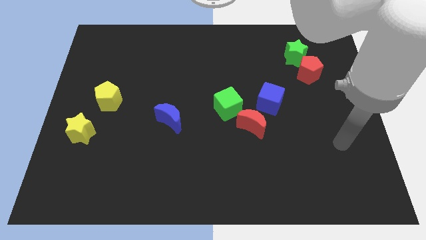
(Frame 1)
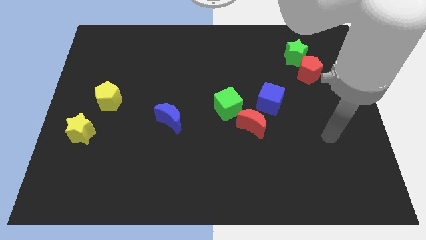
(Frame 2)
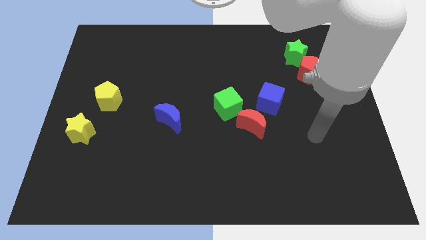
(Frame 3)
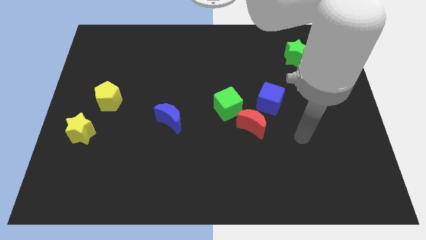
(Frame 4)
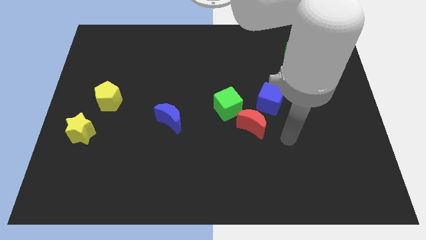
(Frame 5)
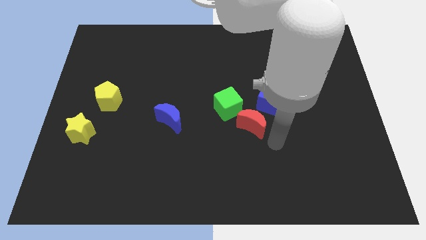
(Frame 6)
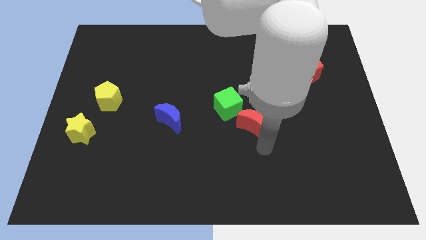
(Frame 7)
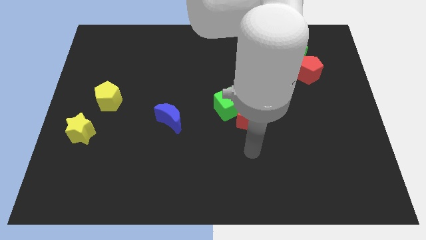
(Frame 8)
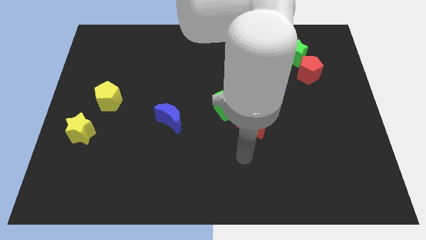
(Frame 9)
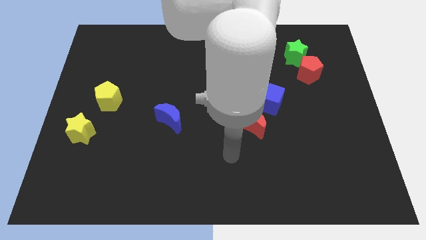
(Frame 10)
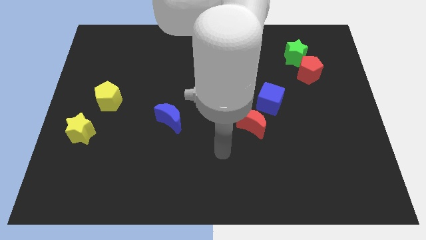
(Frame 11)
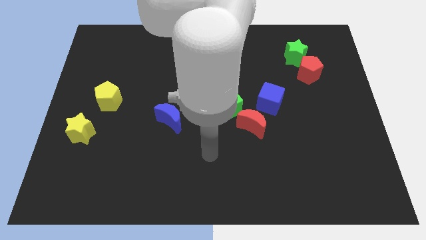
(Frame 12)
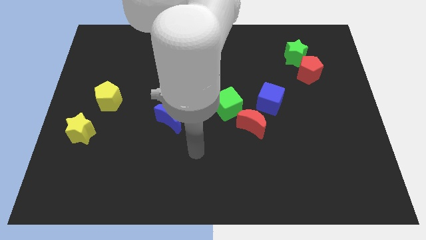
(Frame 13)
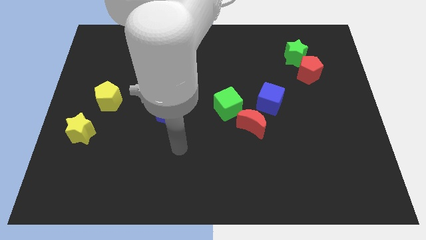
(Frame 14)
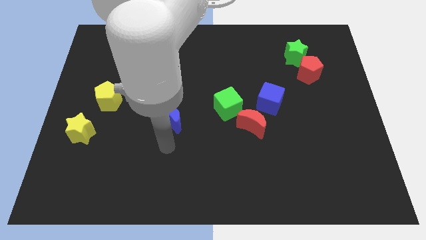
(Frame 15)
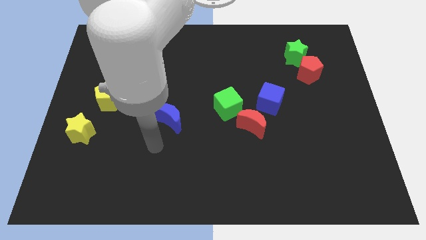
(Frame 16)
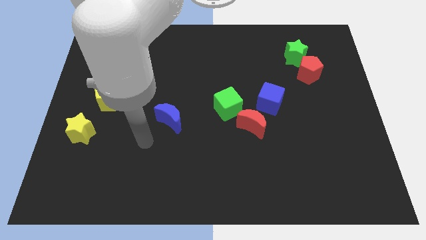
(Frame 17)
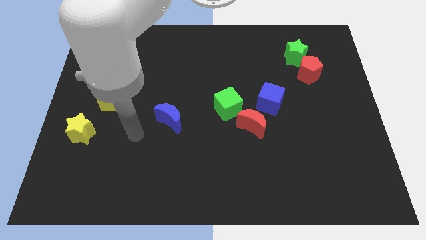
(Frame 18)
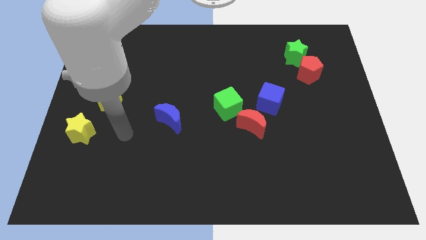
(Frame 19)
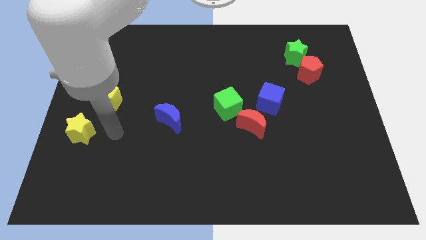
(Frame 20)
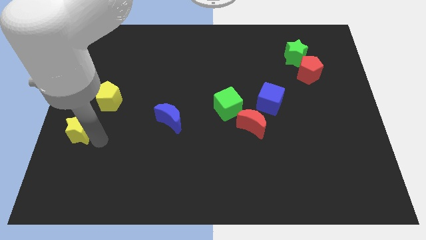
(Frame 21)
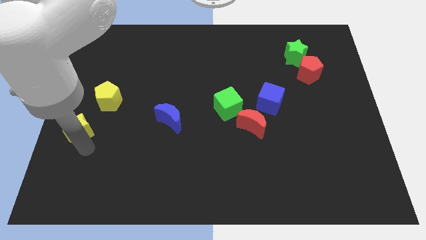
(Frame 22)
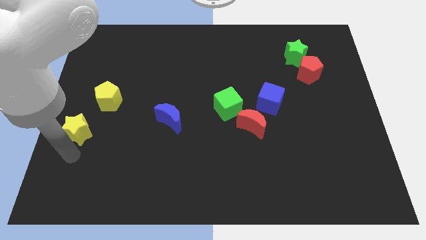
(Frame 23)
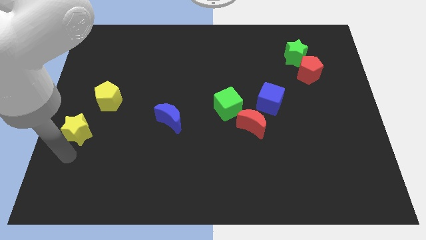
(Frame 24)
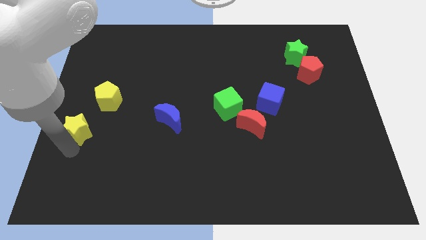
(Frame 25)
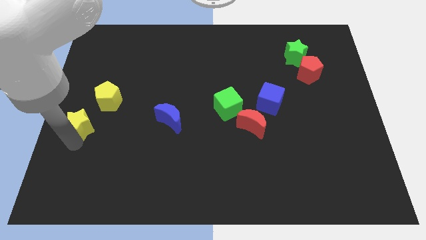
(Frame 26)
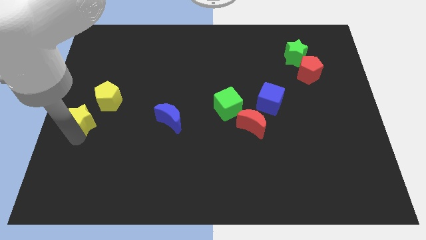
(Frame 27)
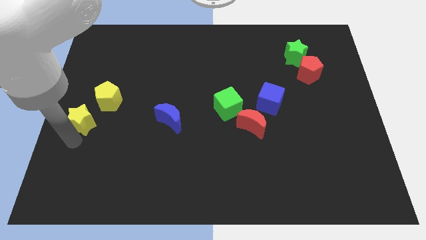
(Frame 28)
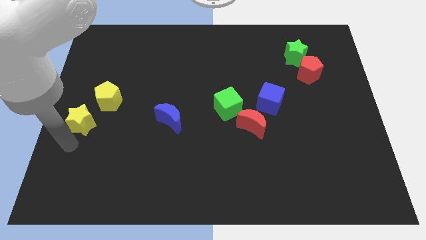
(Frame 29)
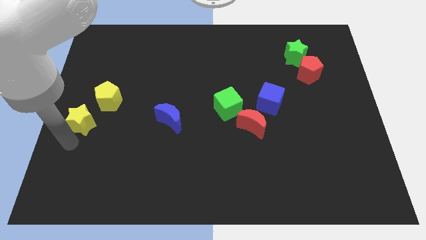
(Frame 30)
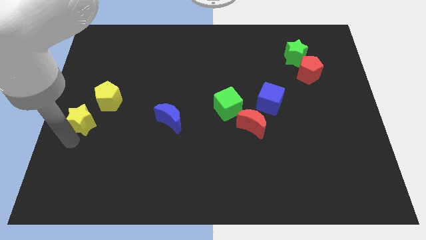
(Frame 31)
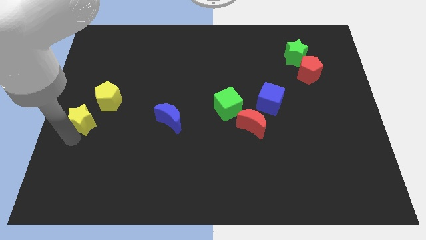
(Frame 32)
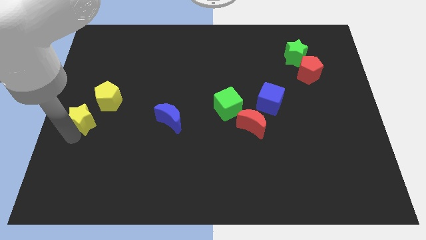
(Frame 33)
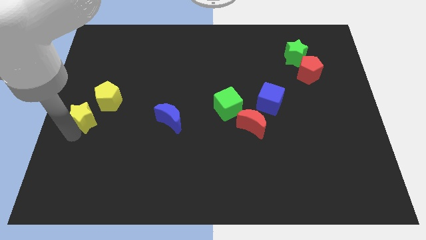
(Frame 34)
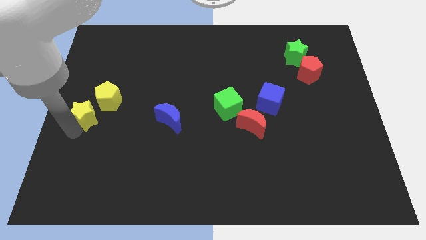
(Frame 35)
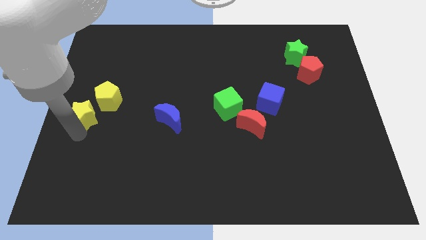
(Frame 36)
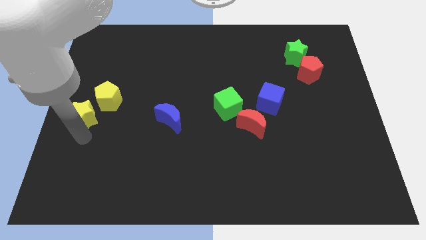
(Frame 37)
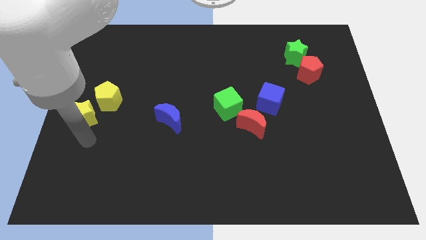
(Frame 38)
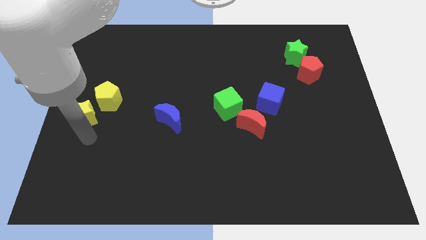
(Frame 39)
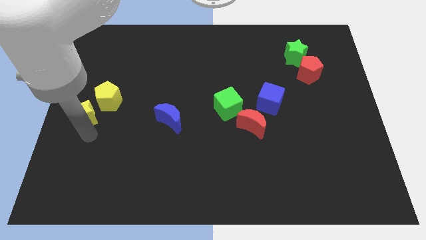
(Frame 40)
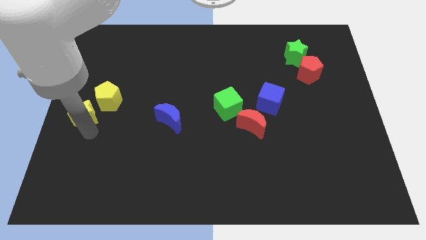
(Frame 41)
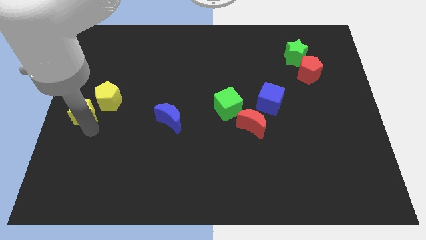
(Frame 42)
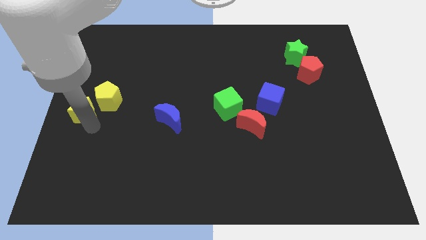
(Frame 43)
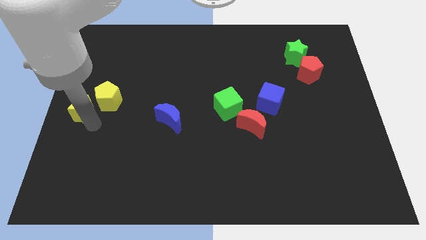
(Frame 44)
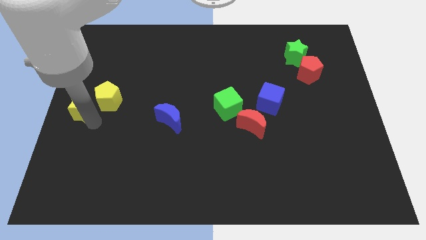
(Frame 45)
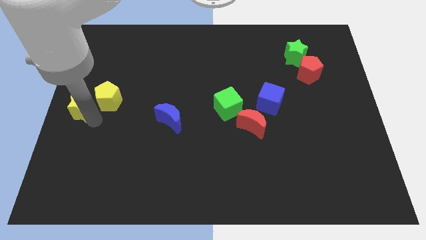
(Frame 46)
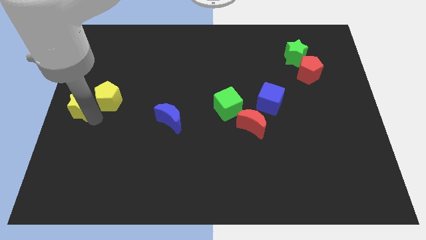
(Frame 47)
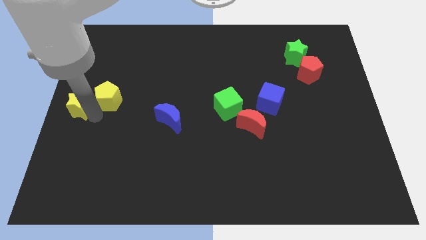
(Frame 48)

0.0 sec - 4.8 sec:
slide the yellow star upwards a little bit

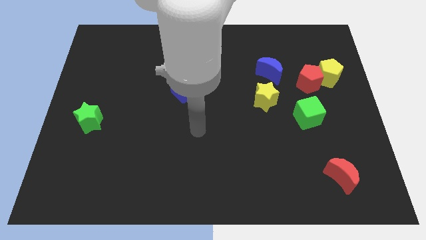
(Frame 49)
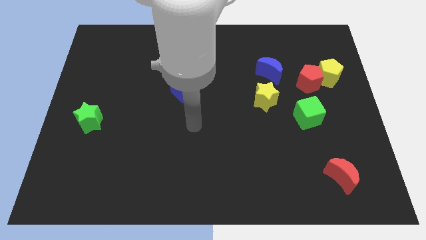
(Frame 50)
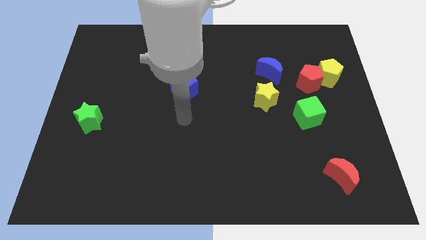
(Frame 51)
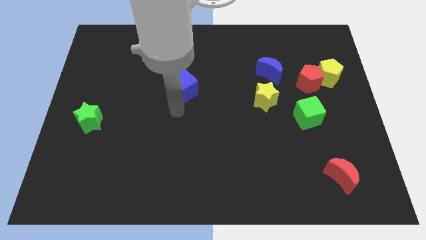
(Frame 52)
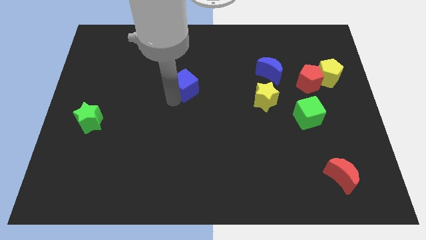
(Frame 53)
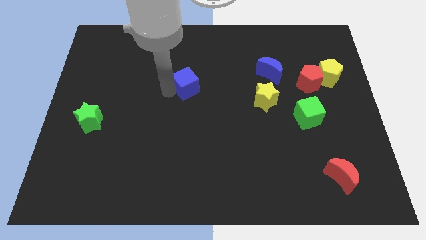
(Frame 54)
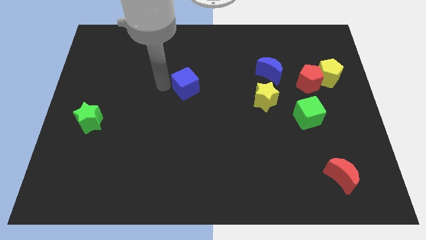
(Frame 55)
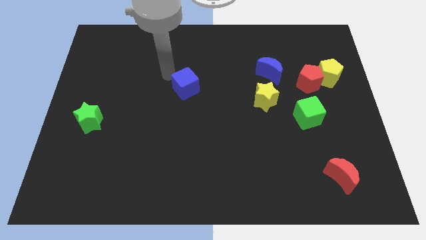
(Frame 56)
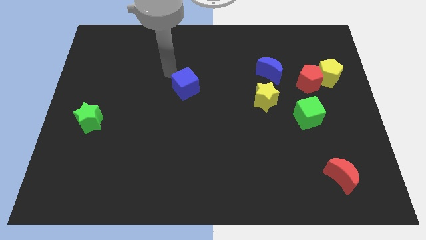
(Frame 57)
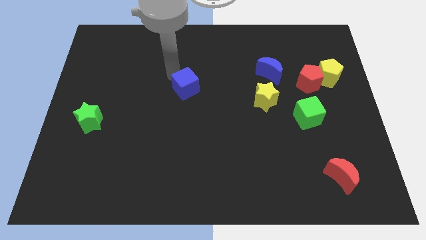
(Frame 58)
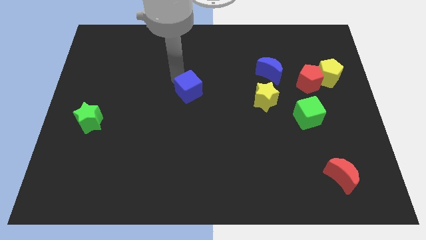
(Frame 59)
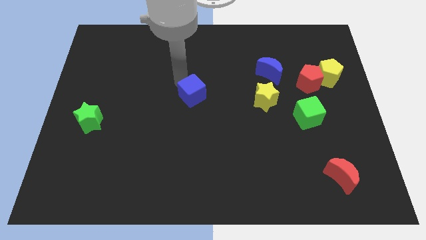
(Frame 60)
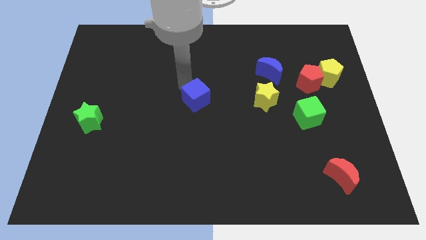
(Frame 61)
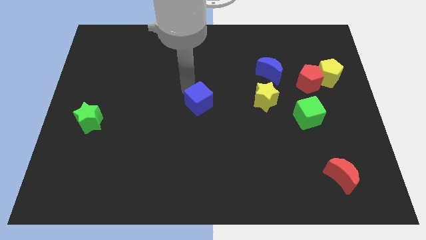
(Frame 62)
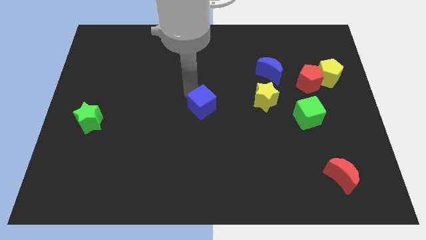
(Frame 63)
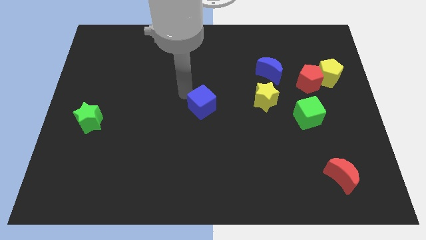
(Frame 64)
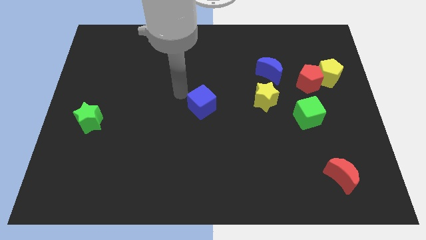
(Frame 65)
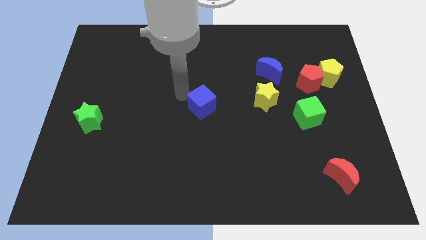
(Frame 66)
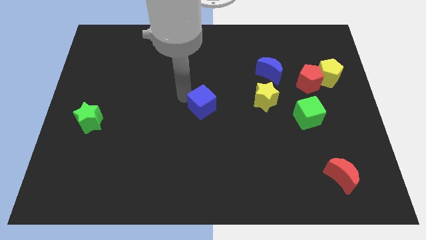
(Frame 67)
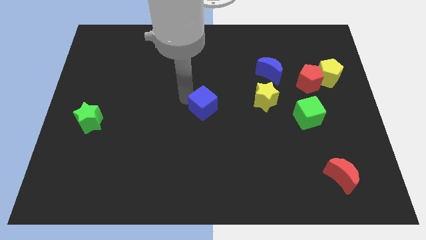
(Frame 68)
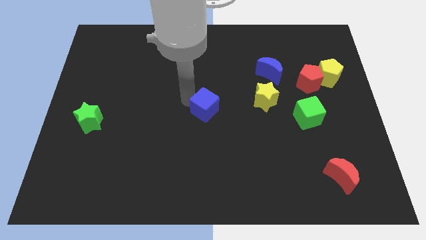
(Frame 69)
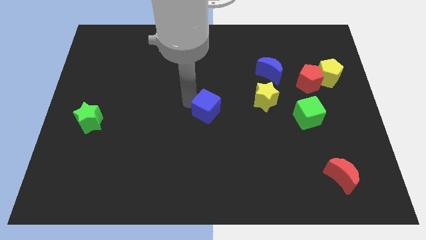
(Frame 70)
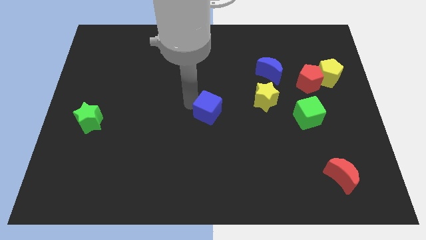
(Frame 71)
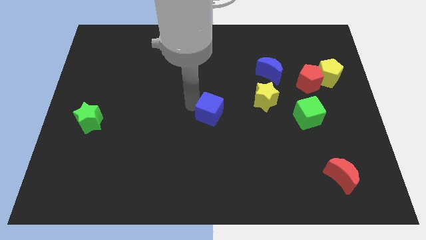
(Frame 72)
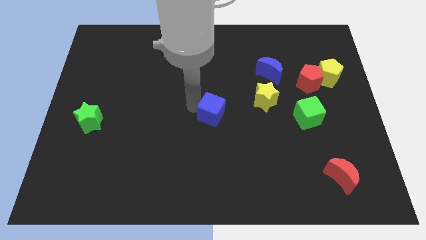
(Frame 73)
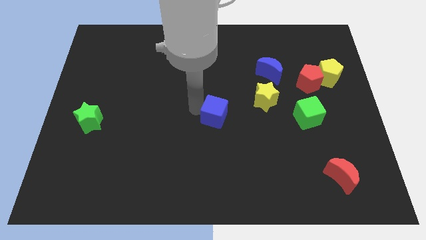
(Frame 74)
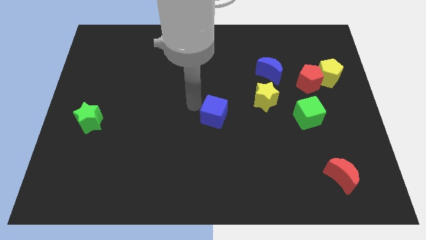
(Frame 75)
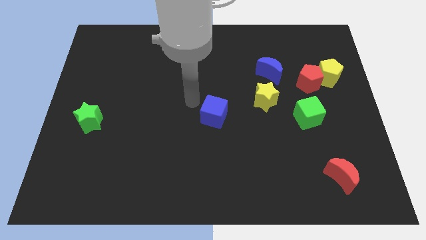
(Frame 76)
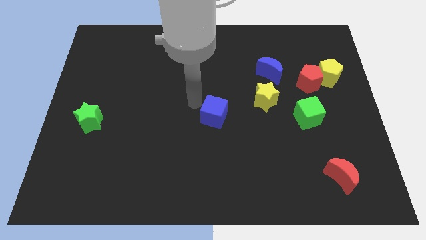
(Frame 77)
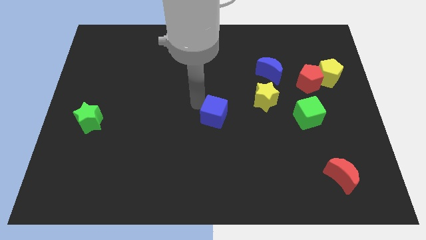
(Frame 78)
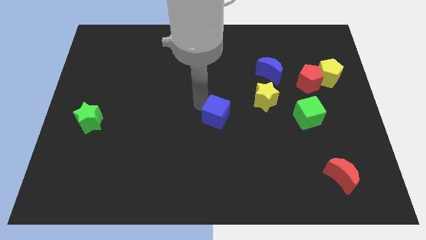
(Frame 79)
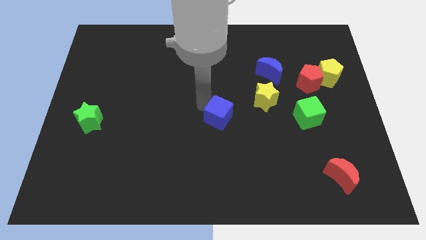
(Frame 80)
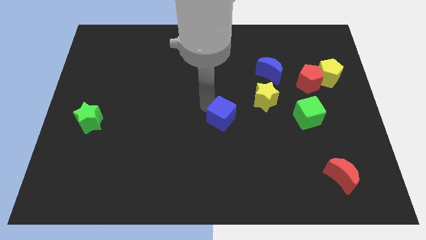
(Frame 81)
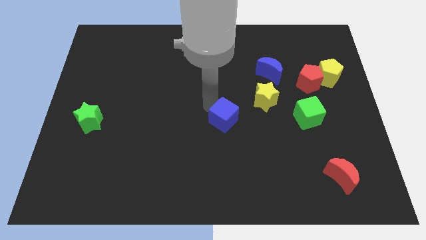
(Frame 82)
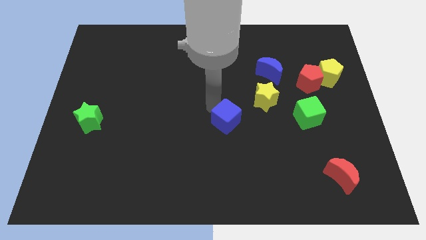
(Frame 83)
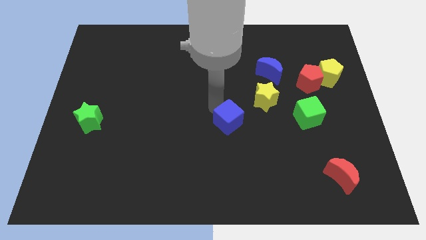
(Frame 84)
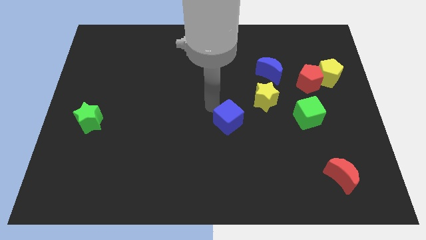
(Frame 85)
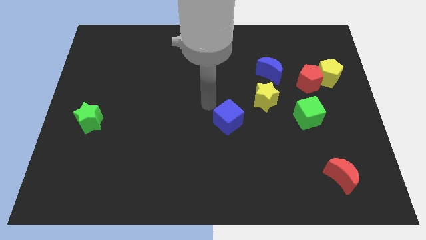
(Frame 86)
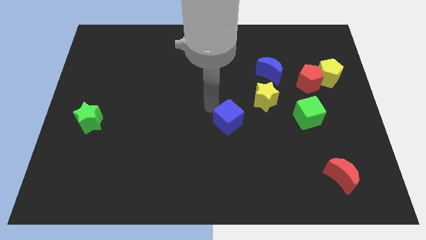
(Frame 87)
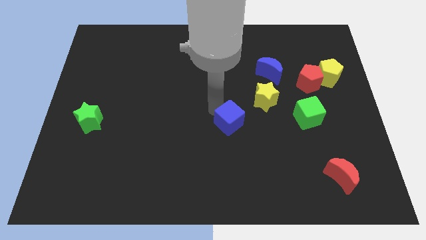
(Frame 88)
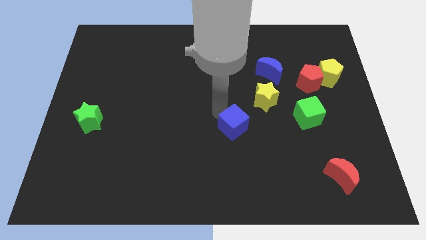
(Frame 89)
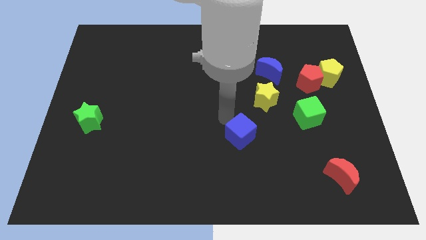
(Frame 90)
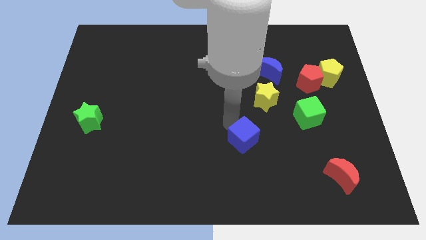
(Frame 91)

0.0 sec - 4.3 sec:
slide the blue cube down and then to the right
